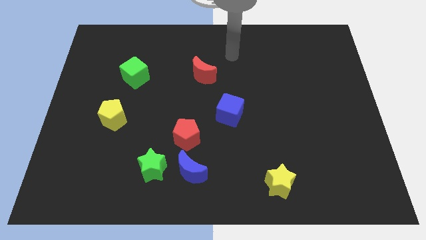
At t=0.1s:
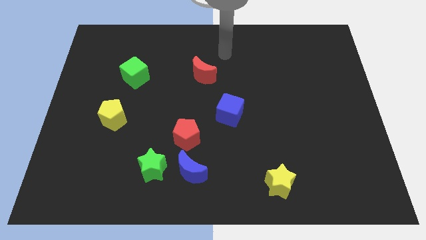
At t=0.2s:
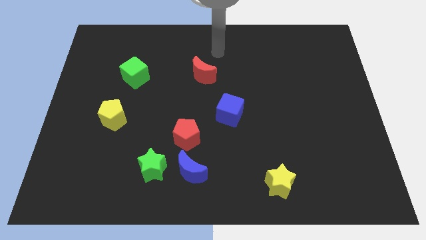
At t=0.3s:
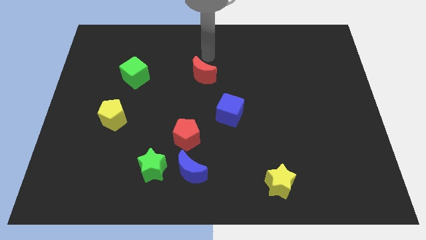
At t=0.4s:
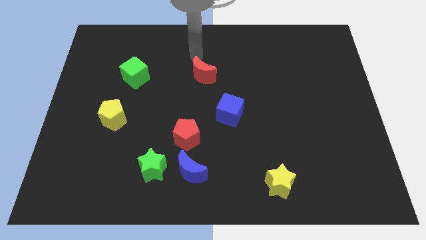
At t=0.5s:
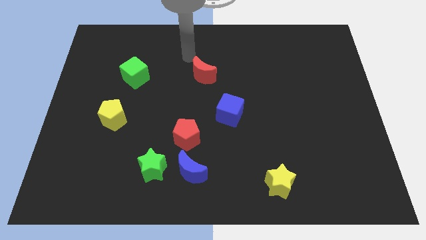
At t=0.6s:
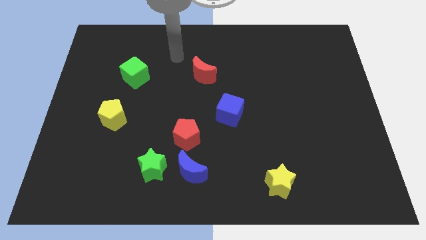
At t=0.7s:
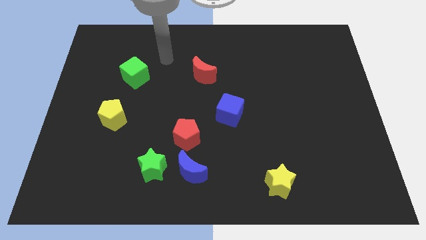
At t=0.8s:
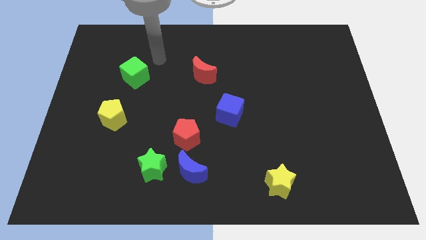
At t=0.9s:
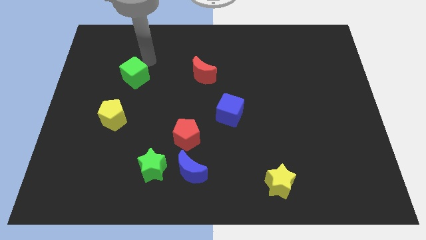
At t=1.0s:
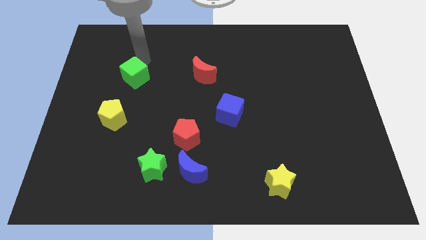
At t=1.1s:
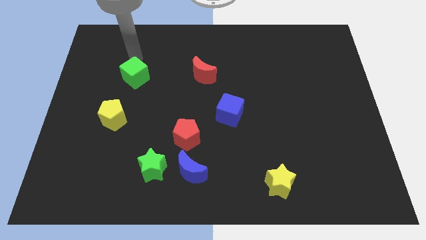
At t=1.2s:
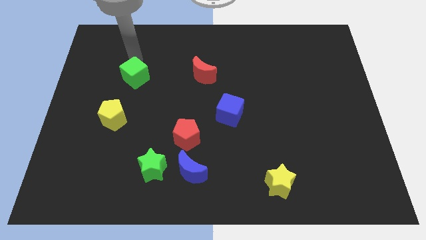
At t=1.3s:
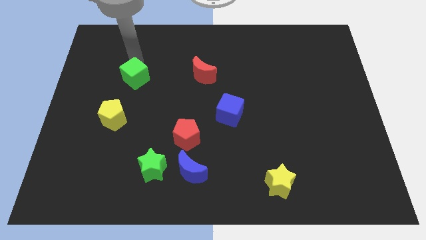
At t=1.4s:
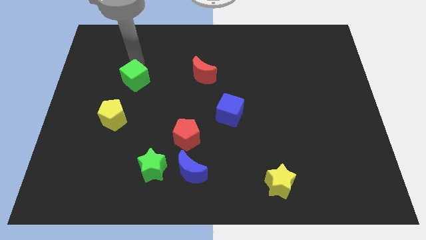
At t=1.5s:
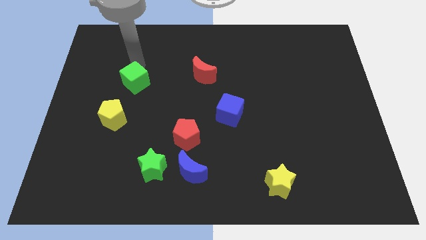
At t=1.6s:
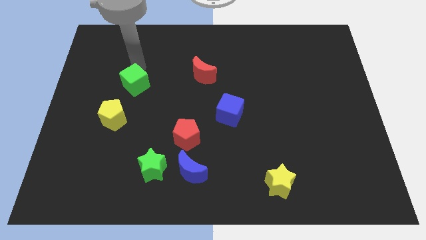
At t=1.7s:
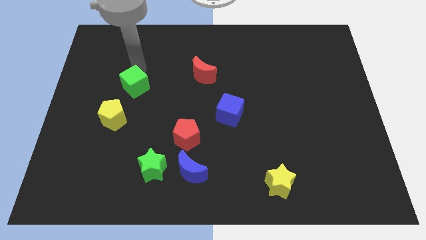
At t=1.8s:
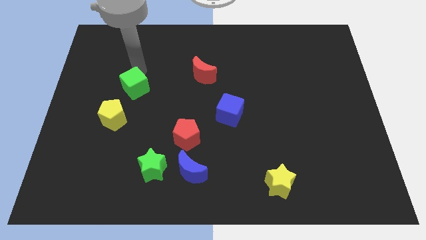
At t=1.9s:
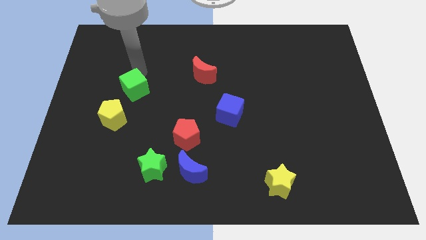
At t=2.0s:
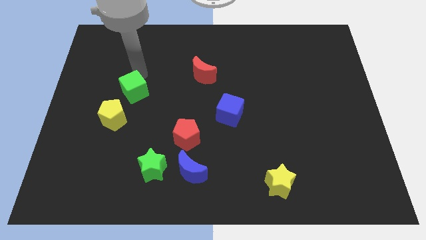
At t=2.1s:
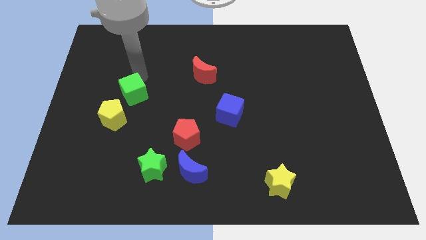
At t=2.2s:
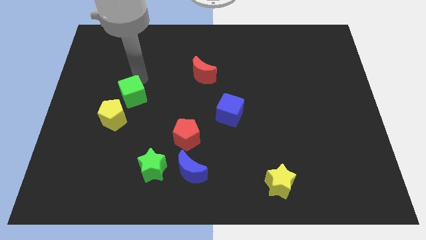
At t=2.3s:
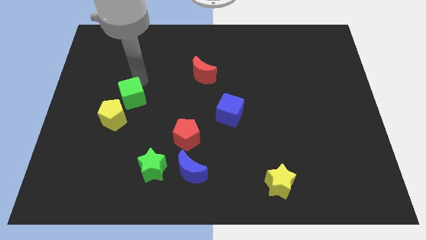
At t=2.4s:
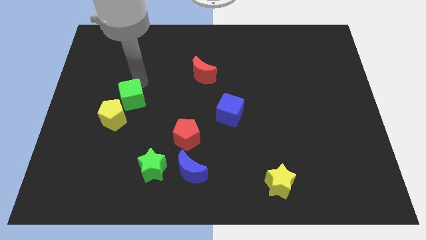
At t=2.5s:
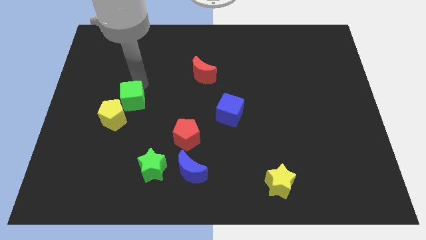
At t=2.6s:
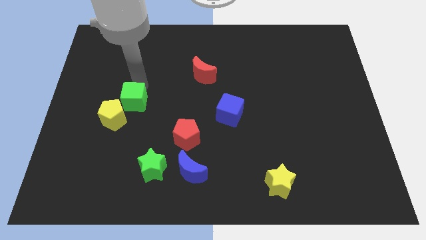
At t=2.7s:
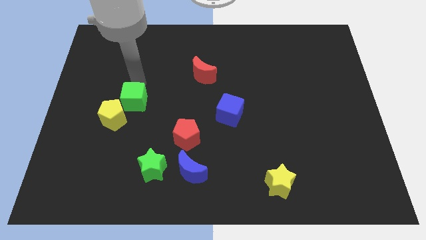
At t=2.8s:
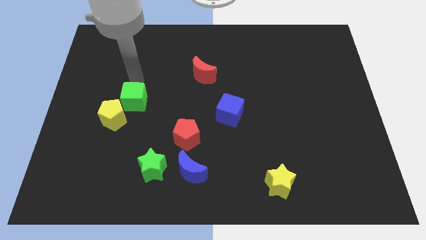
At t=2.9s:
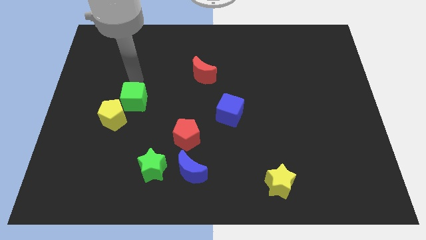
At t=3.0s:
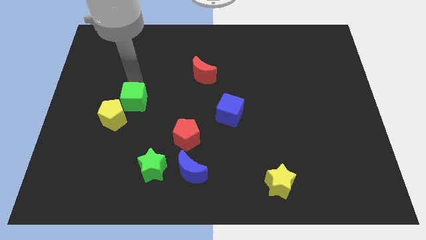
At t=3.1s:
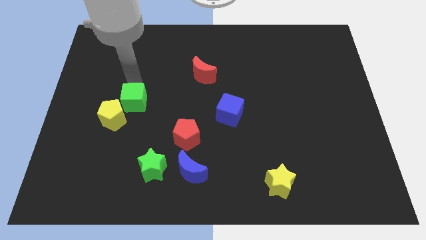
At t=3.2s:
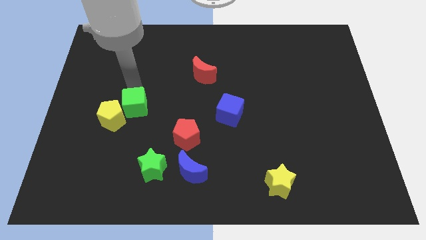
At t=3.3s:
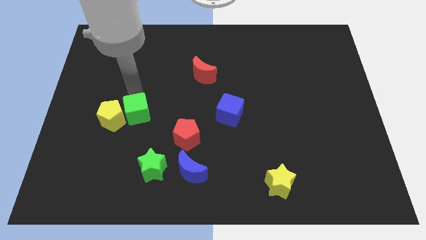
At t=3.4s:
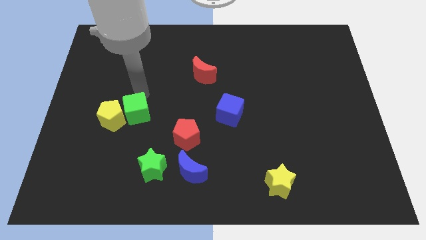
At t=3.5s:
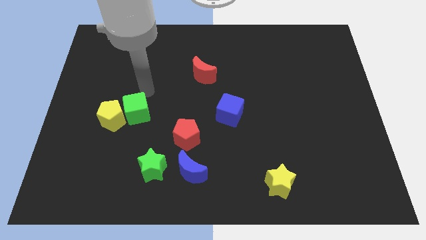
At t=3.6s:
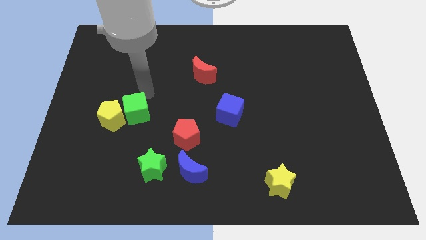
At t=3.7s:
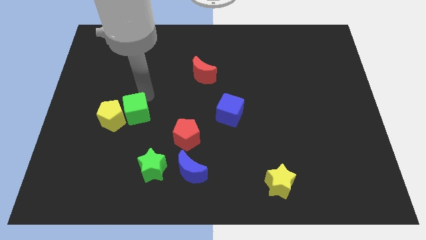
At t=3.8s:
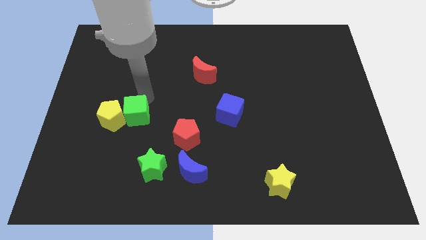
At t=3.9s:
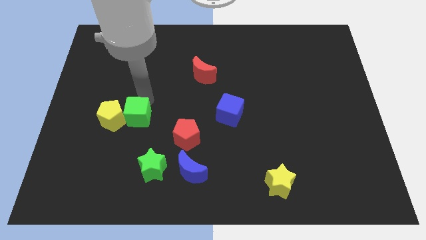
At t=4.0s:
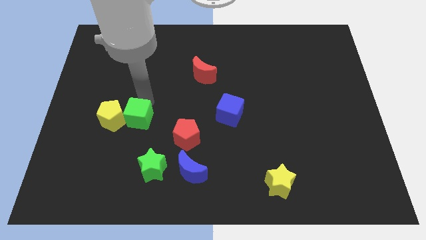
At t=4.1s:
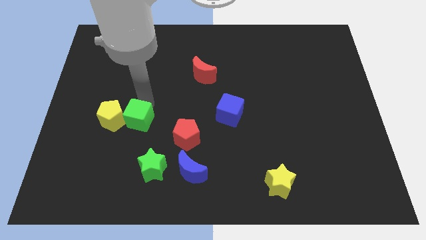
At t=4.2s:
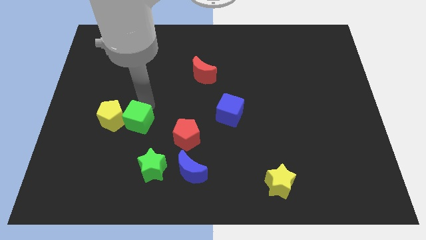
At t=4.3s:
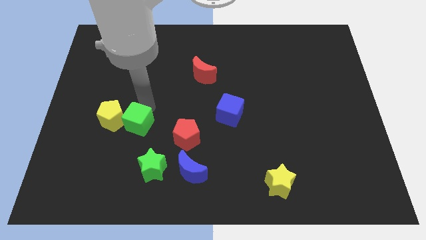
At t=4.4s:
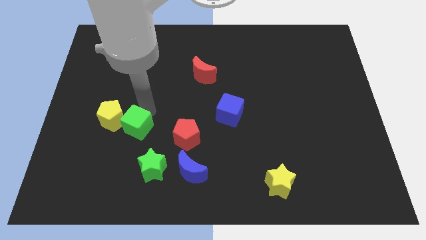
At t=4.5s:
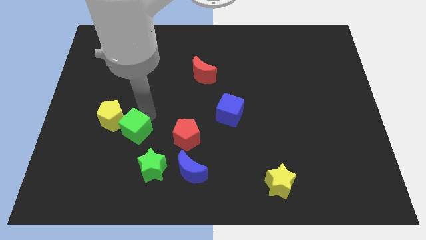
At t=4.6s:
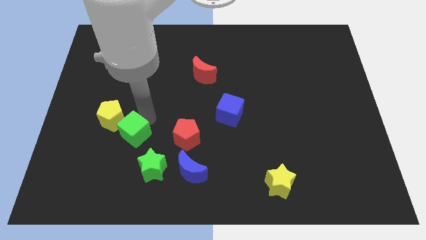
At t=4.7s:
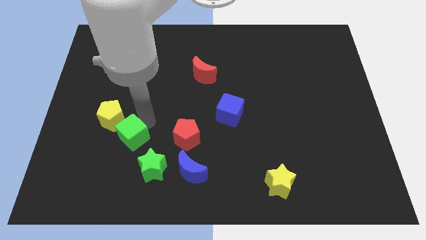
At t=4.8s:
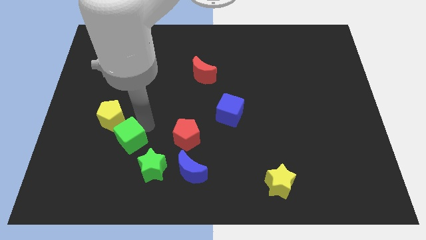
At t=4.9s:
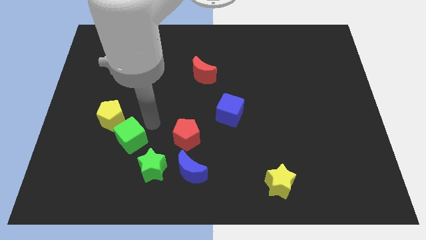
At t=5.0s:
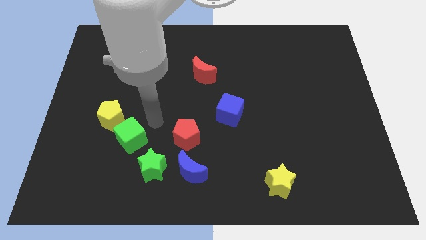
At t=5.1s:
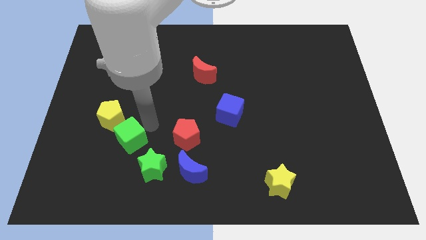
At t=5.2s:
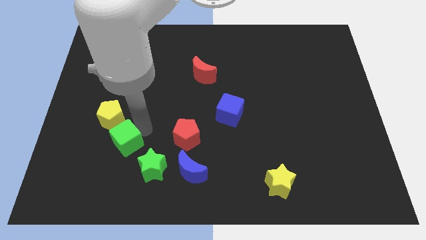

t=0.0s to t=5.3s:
push the green cube below the yellow pentagon

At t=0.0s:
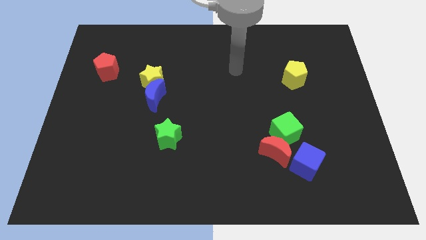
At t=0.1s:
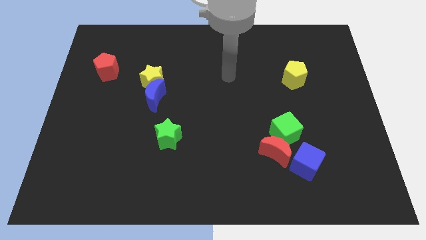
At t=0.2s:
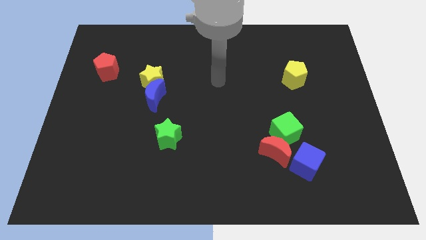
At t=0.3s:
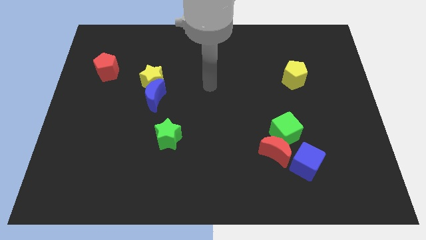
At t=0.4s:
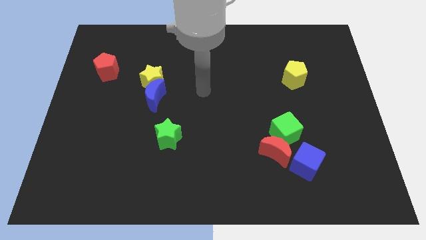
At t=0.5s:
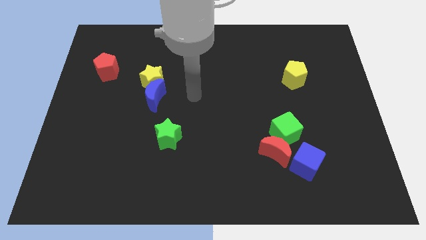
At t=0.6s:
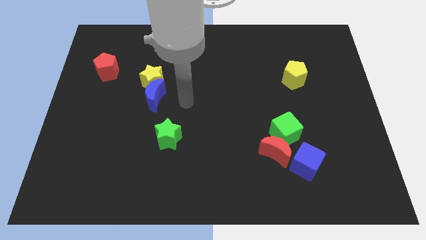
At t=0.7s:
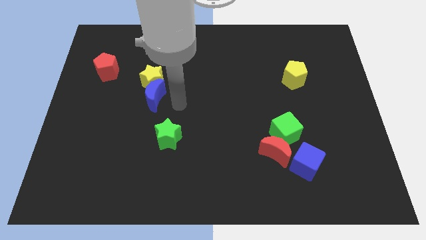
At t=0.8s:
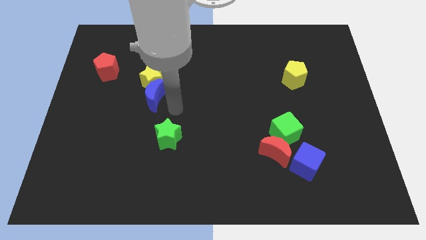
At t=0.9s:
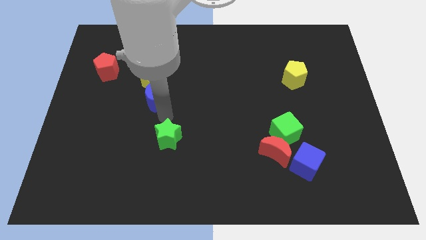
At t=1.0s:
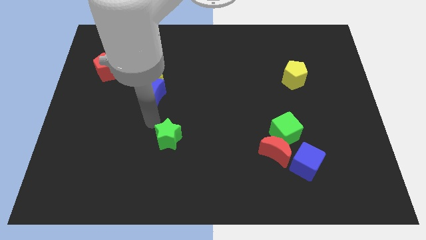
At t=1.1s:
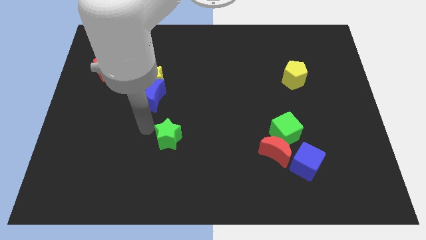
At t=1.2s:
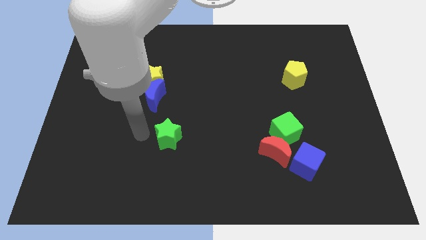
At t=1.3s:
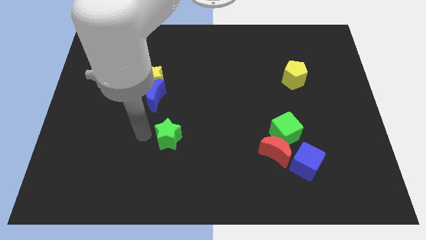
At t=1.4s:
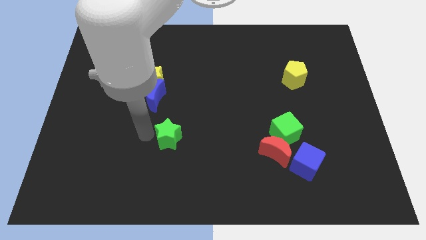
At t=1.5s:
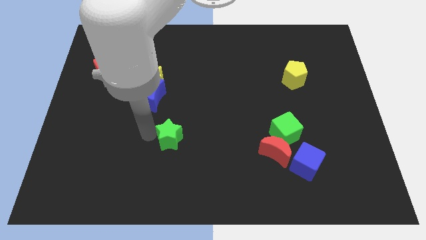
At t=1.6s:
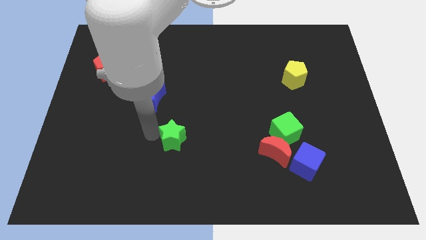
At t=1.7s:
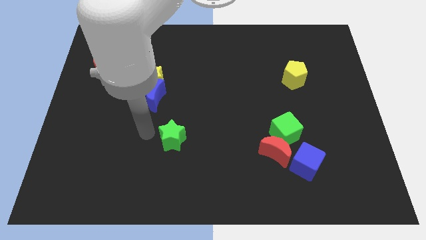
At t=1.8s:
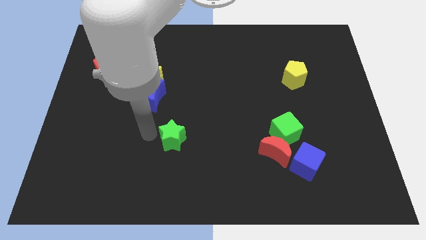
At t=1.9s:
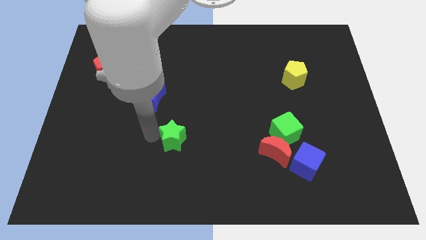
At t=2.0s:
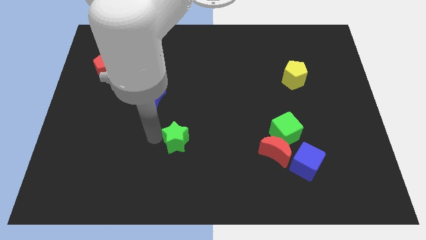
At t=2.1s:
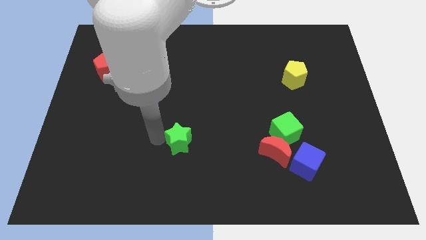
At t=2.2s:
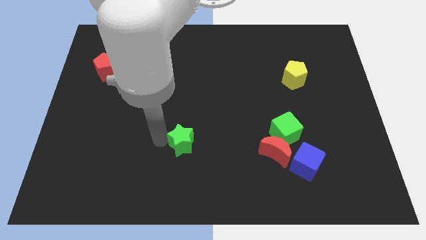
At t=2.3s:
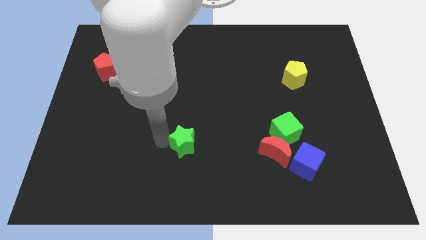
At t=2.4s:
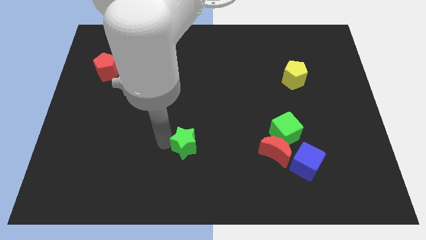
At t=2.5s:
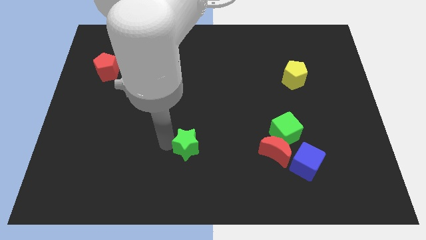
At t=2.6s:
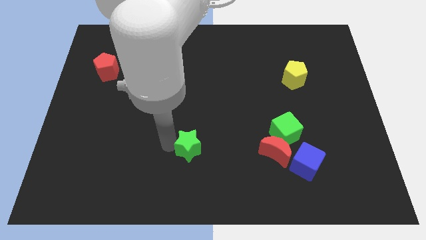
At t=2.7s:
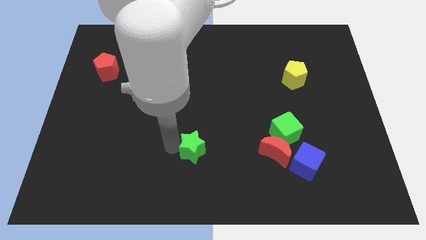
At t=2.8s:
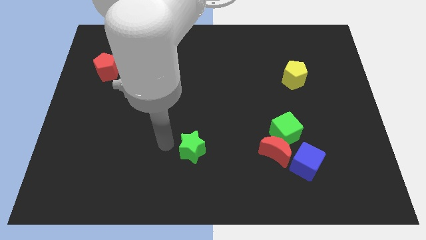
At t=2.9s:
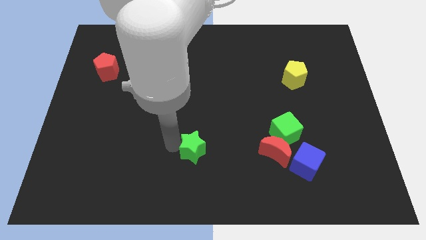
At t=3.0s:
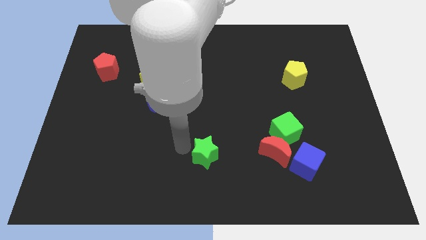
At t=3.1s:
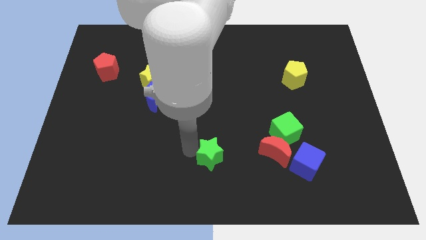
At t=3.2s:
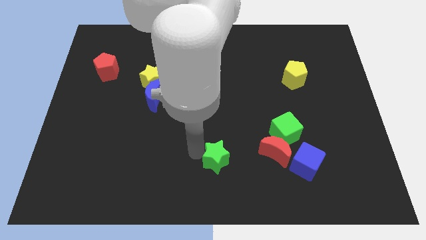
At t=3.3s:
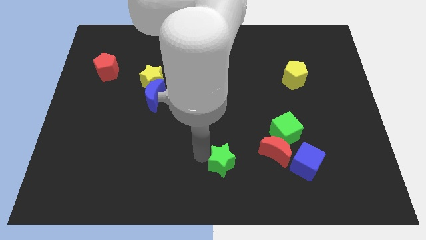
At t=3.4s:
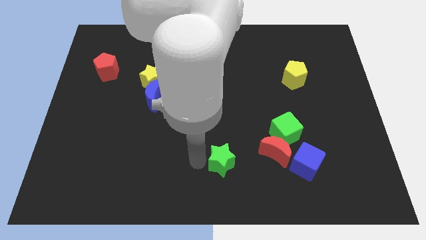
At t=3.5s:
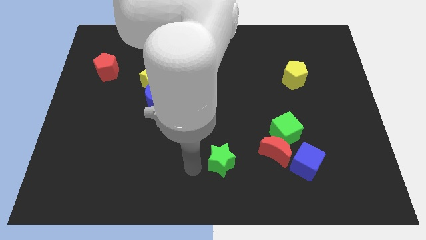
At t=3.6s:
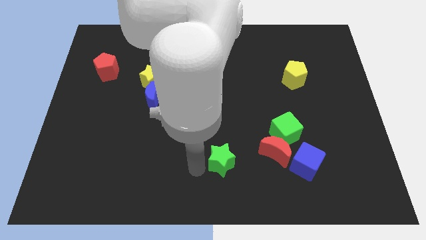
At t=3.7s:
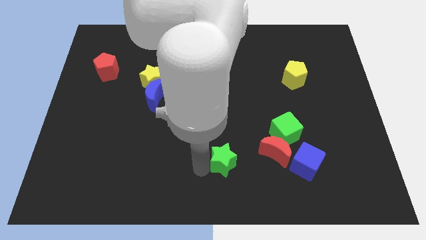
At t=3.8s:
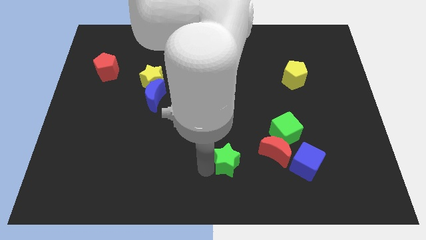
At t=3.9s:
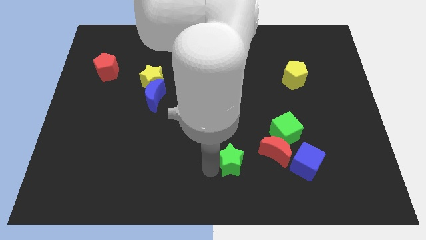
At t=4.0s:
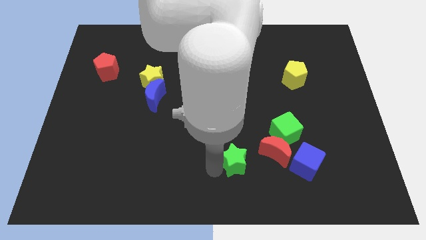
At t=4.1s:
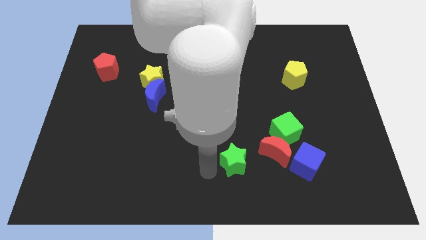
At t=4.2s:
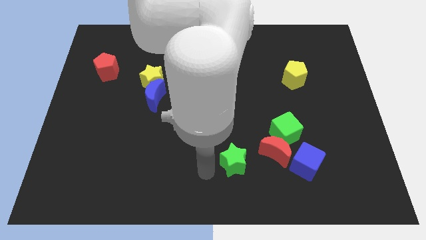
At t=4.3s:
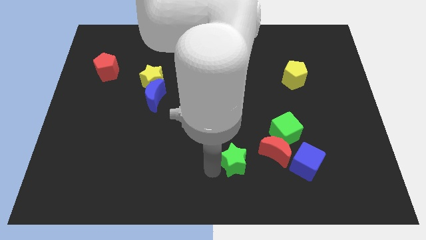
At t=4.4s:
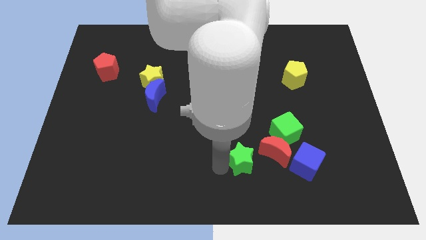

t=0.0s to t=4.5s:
push the green star to the bottom left of the green cube
